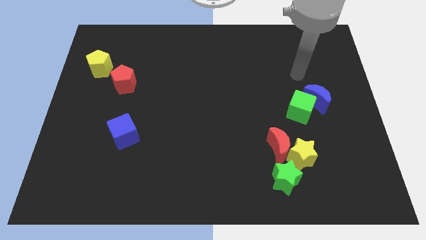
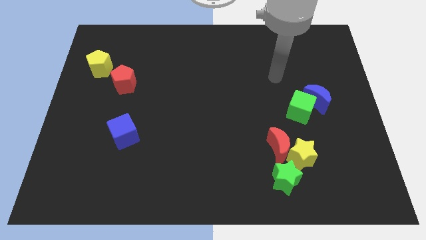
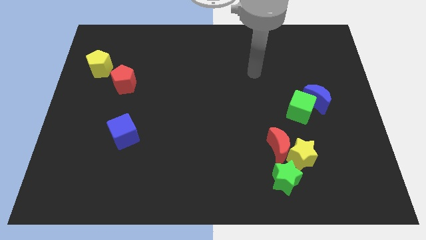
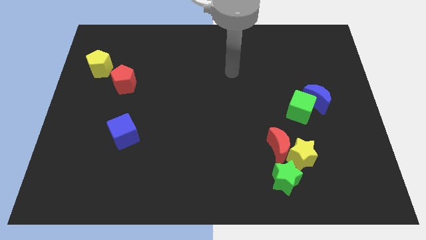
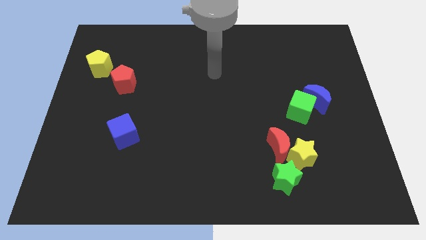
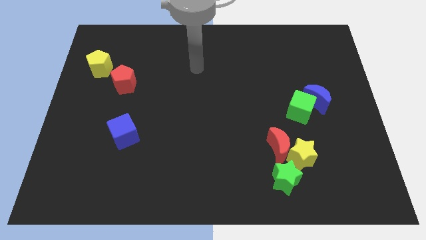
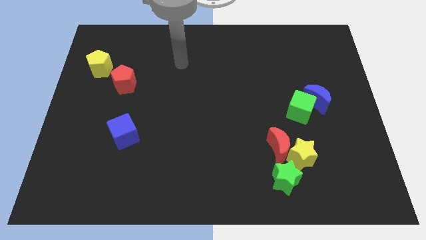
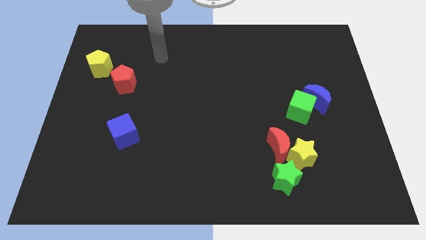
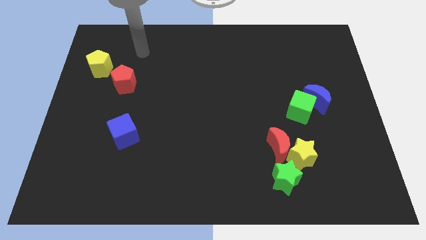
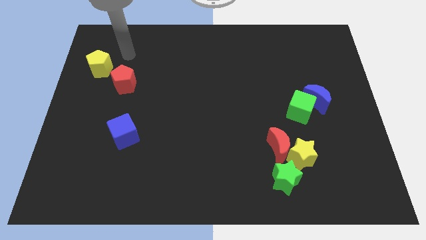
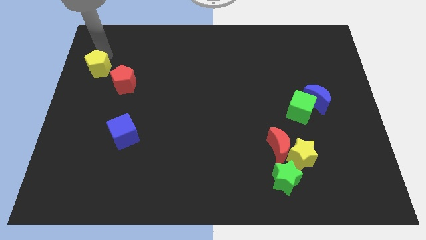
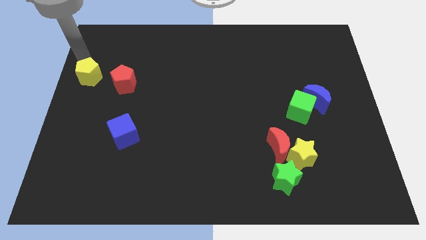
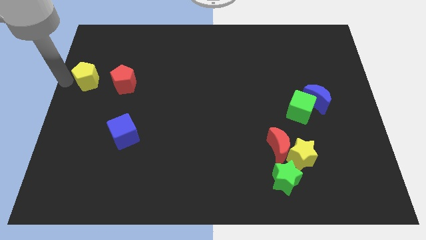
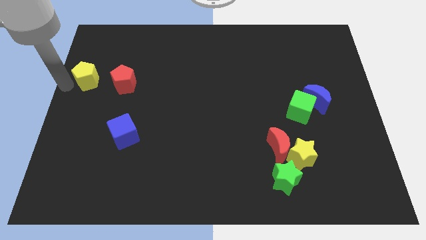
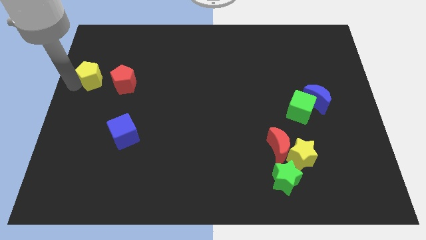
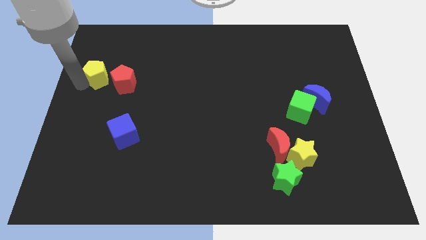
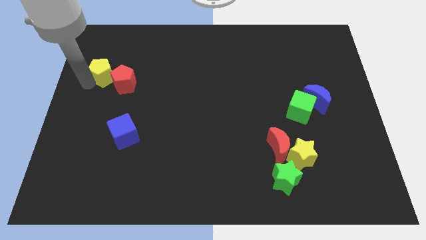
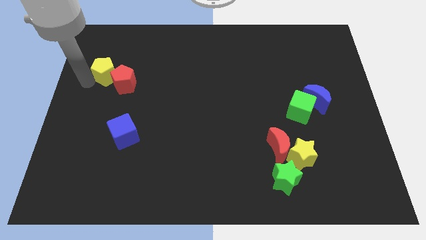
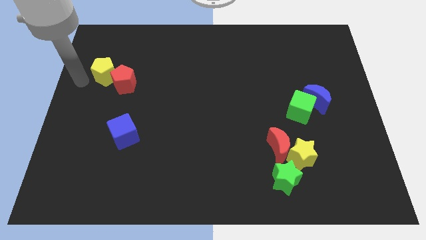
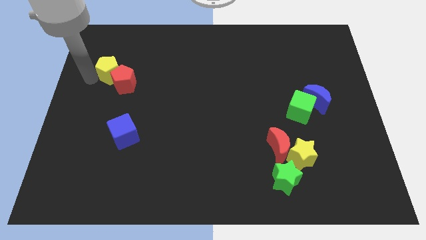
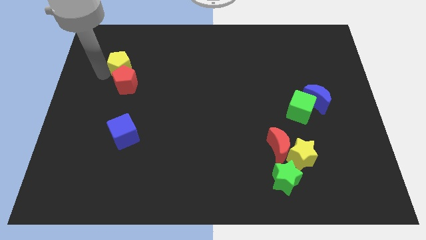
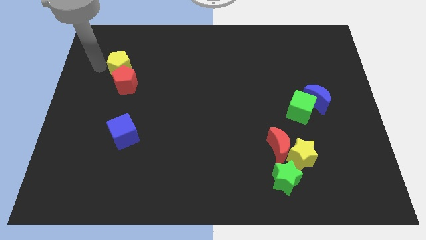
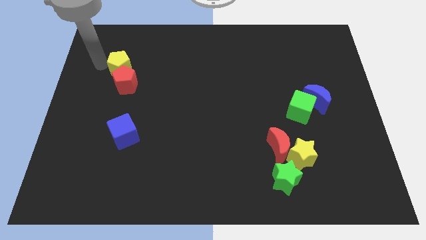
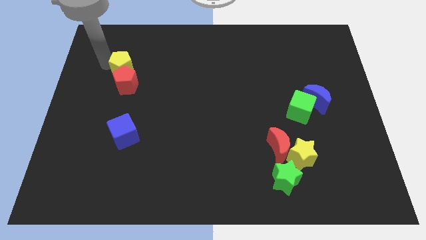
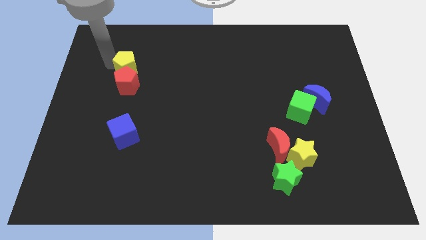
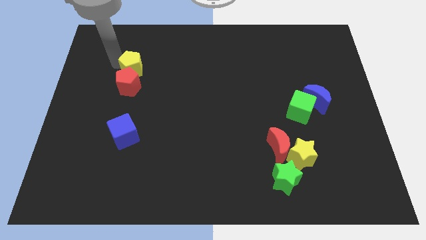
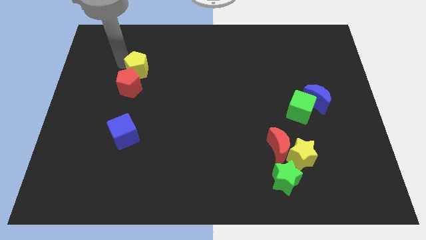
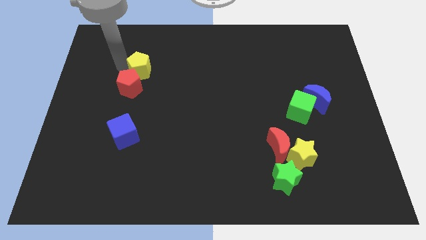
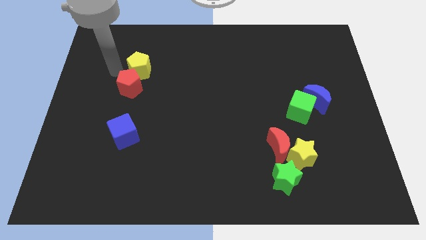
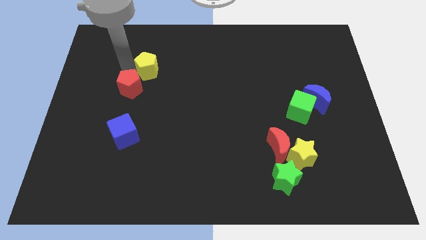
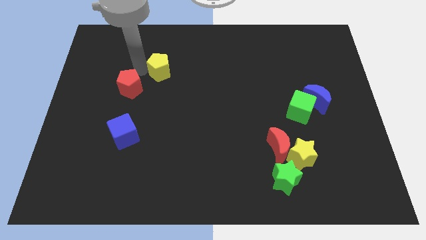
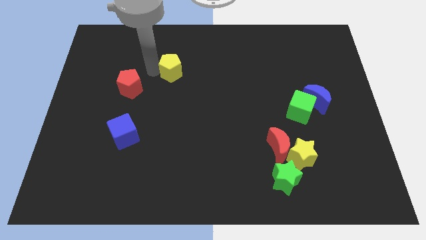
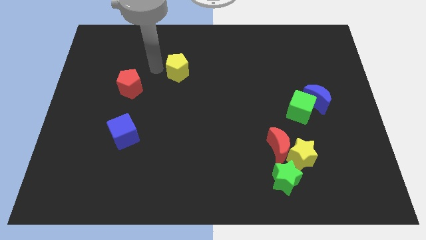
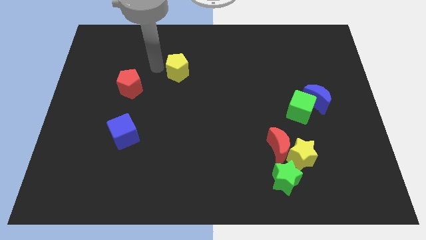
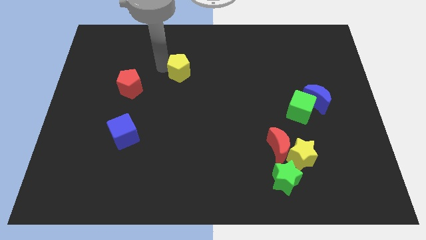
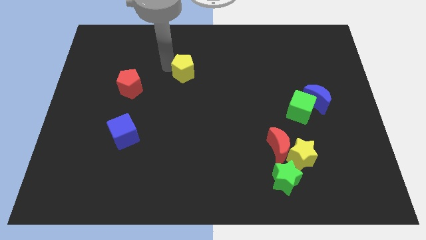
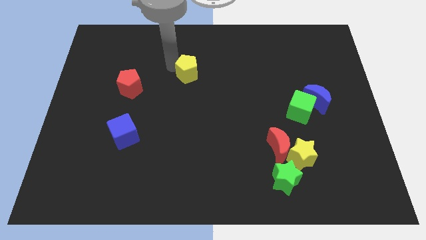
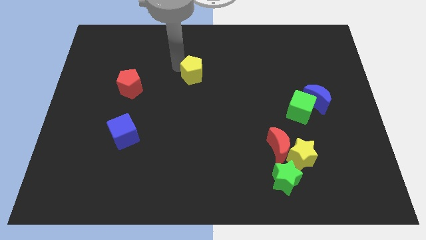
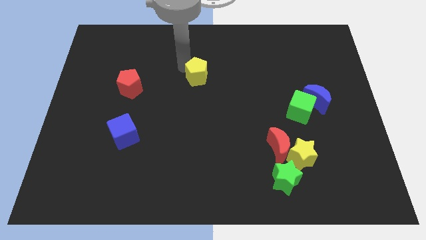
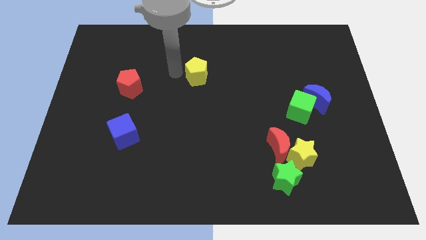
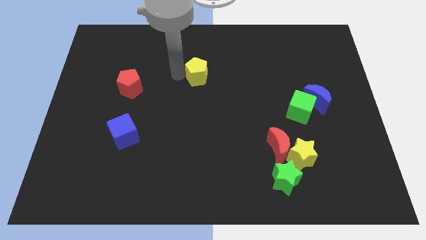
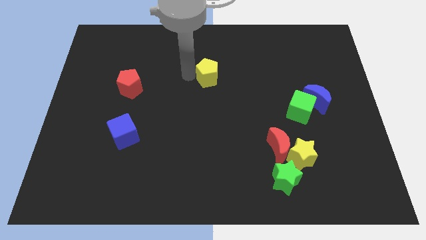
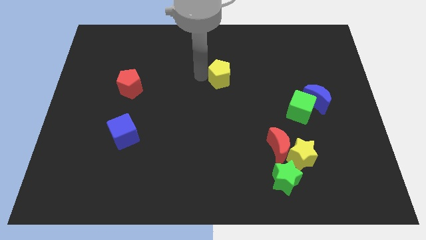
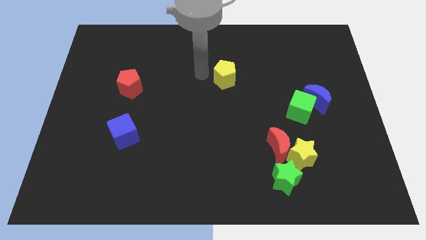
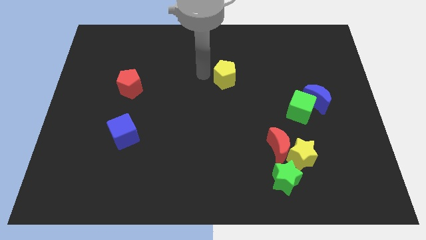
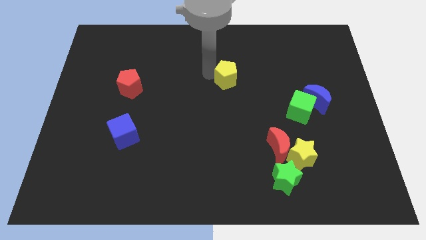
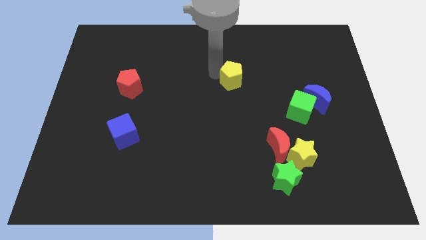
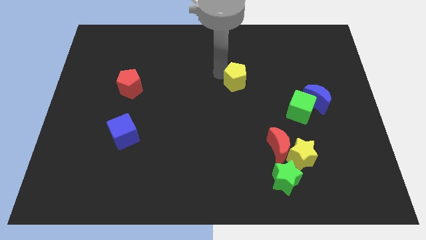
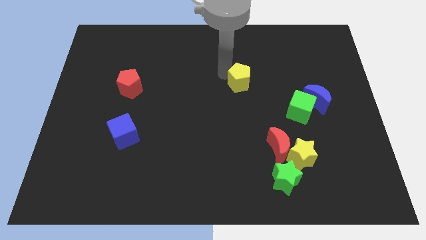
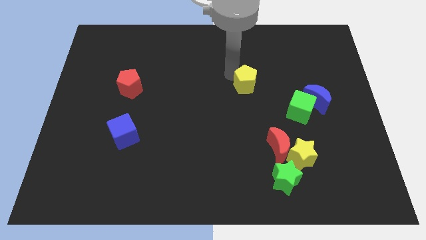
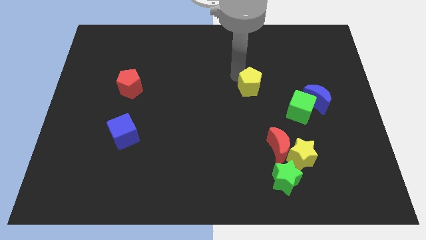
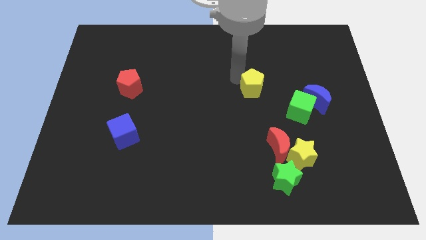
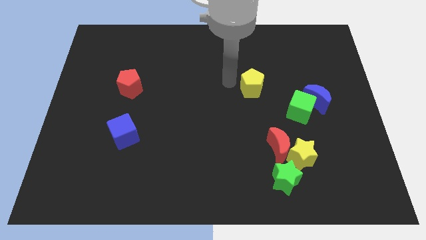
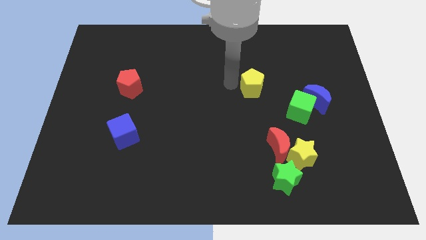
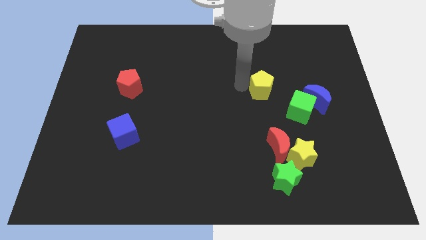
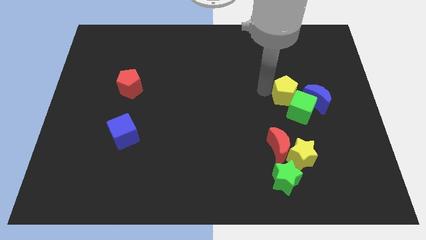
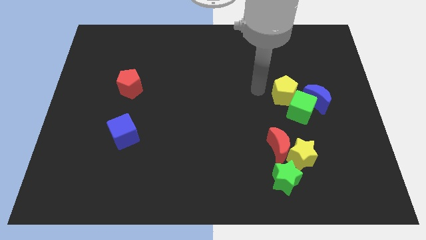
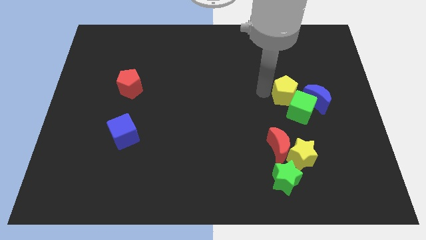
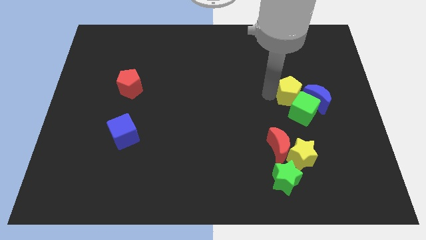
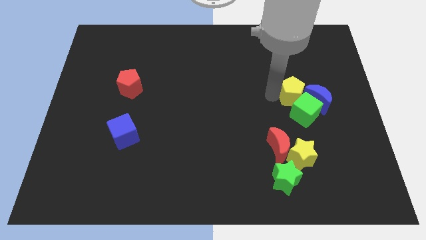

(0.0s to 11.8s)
slide the yellow pentagon close to the blue moon

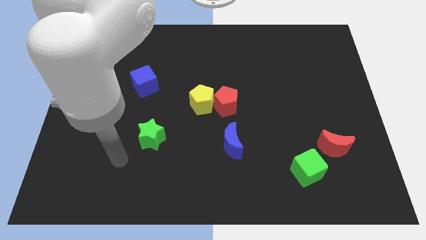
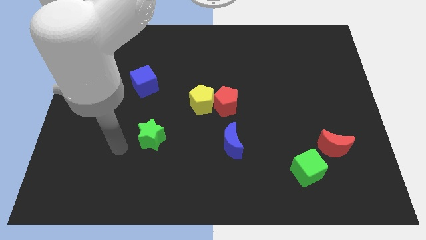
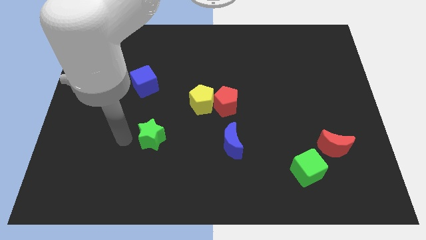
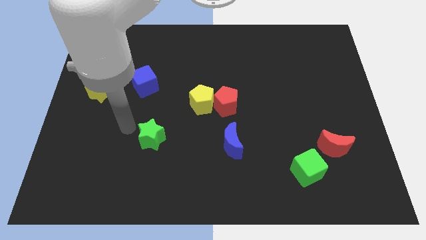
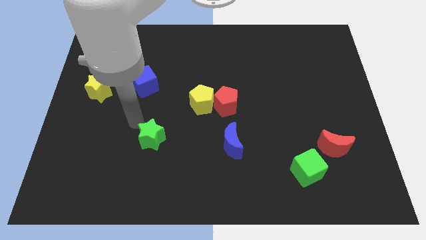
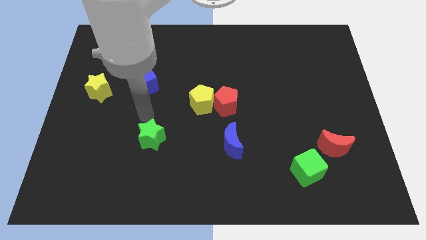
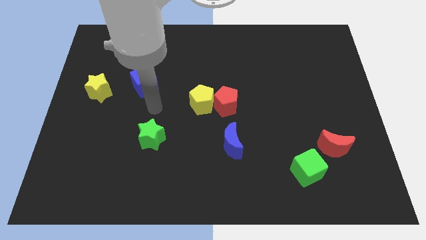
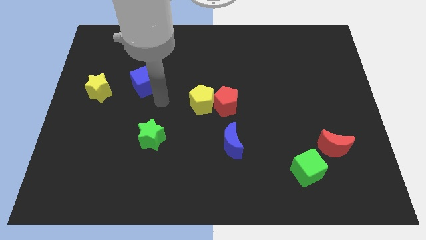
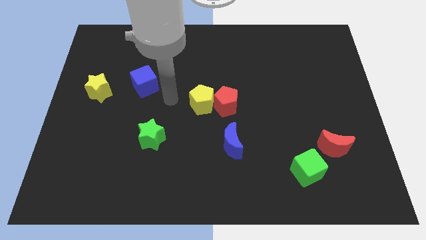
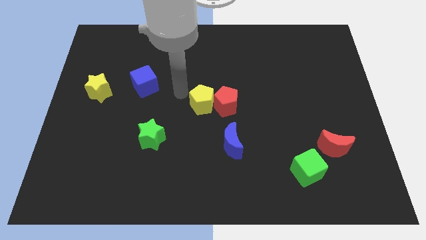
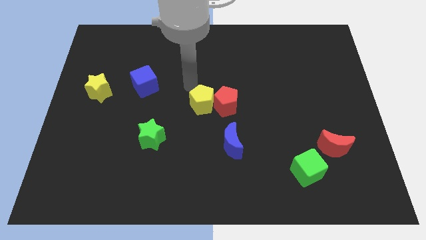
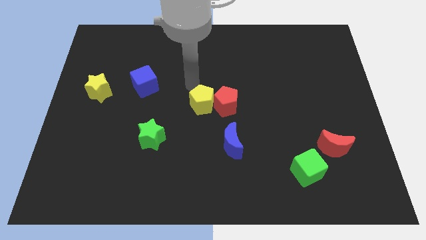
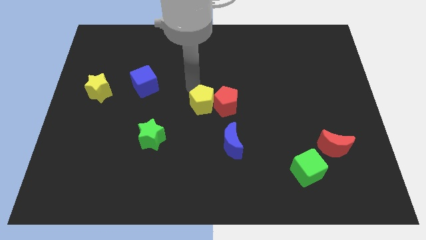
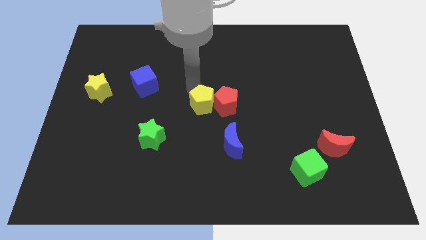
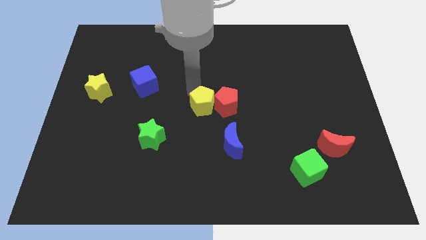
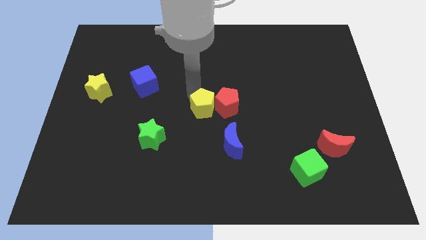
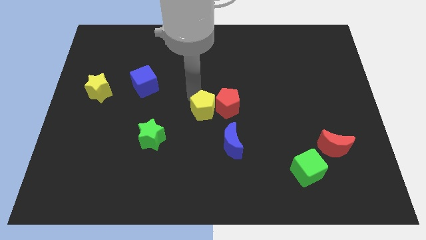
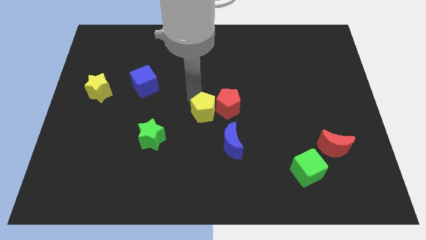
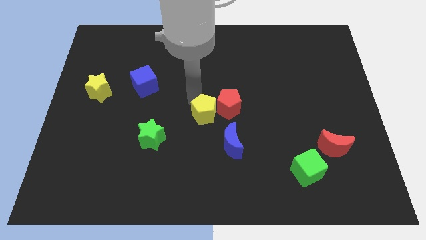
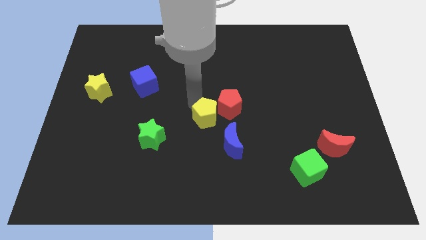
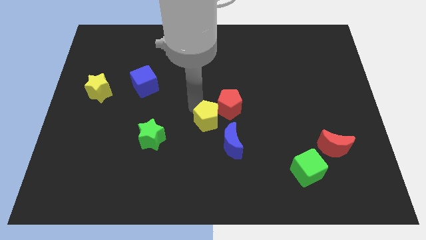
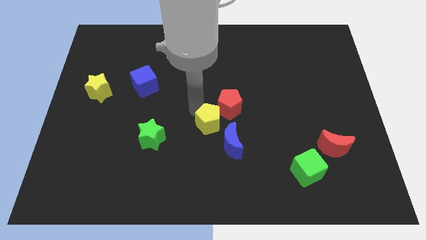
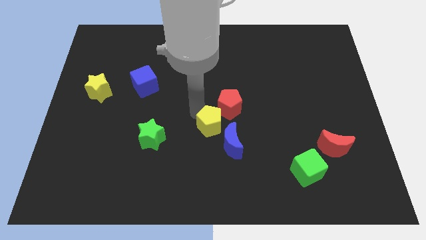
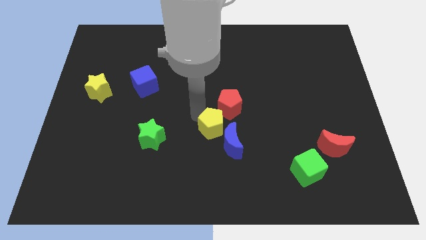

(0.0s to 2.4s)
put the yellow pentagon close to the blue moon
